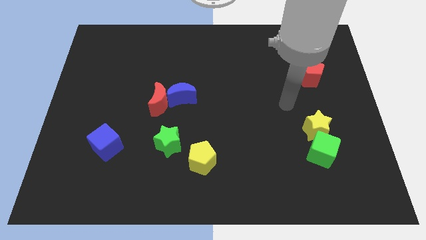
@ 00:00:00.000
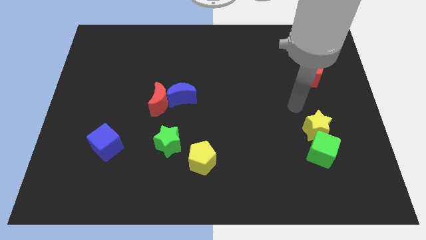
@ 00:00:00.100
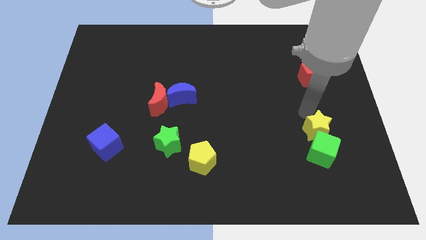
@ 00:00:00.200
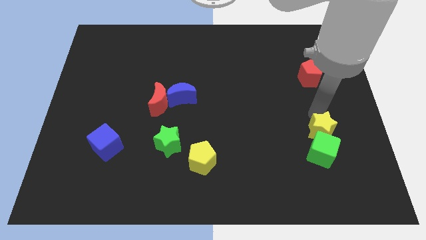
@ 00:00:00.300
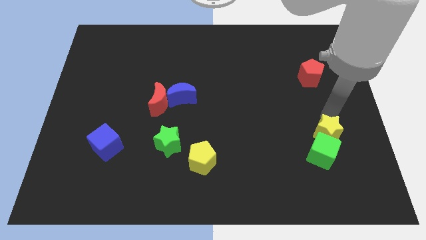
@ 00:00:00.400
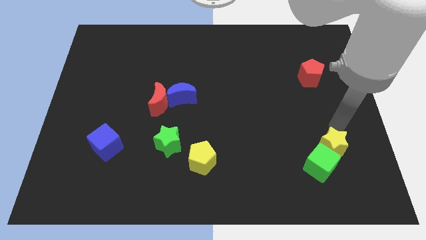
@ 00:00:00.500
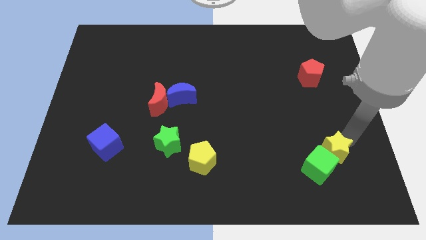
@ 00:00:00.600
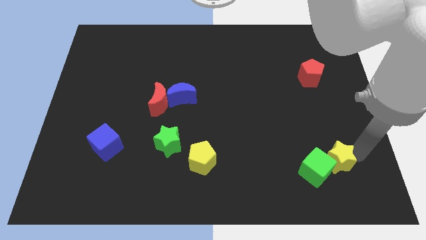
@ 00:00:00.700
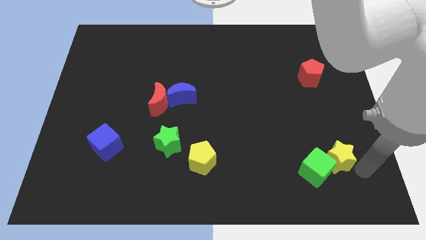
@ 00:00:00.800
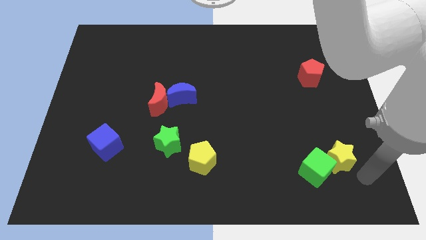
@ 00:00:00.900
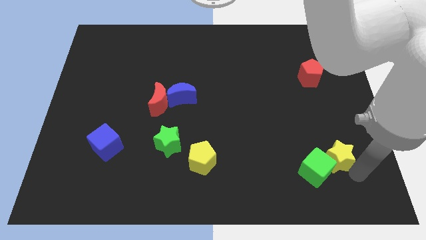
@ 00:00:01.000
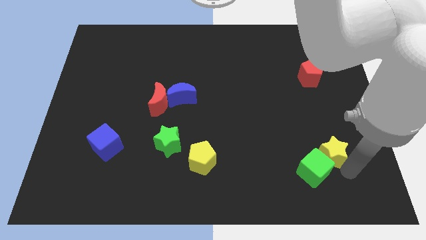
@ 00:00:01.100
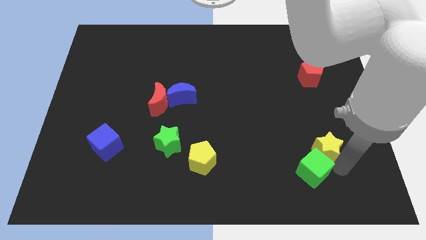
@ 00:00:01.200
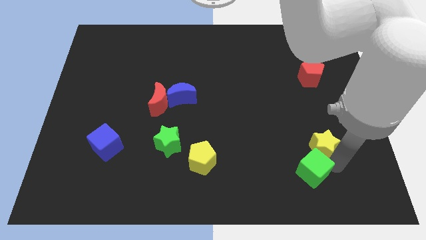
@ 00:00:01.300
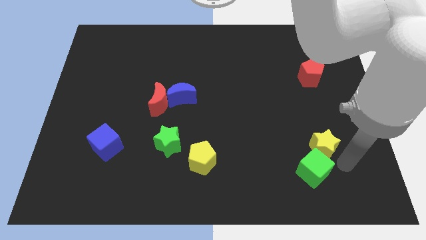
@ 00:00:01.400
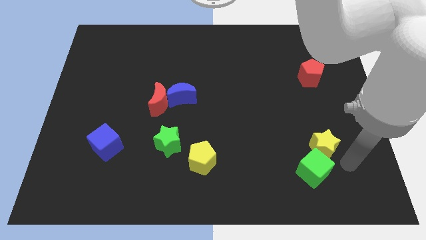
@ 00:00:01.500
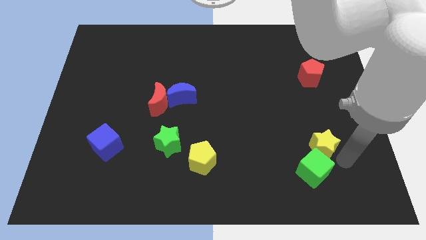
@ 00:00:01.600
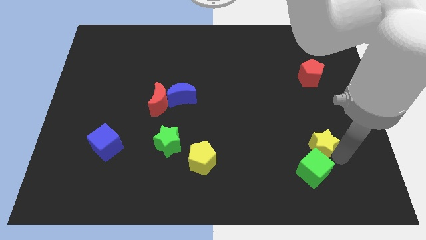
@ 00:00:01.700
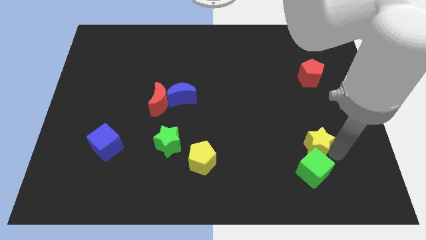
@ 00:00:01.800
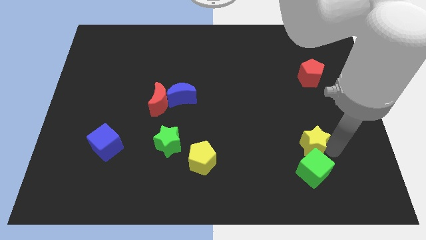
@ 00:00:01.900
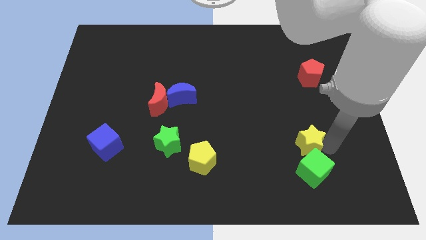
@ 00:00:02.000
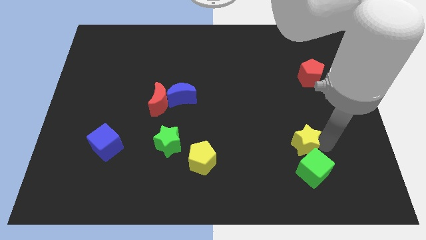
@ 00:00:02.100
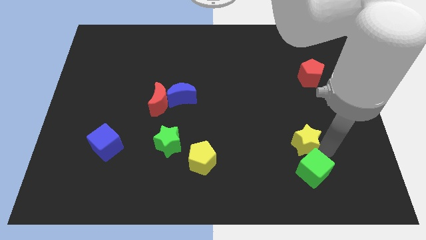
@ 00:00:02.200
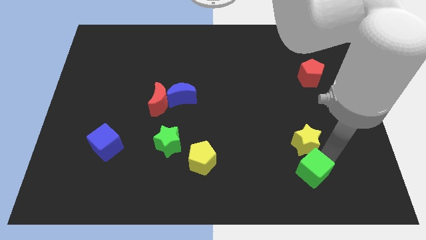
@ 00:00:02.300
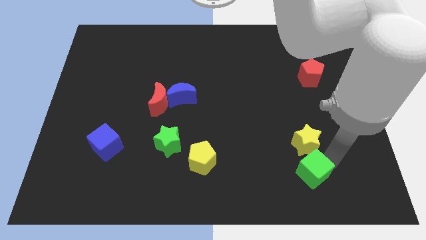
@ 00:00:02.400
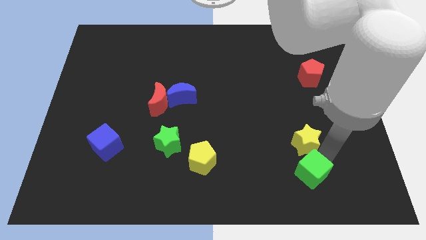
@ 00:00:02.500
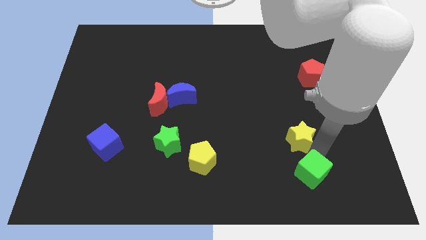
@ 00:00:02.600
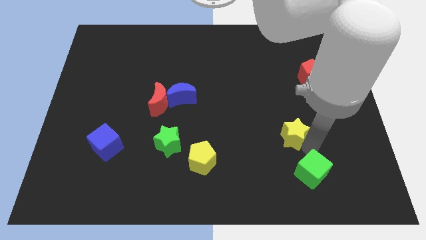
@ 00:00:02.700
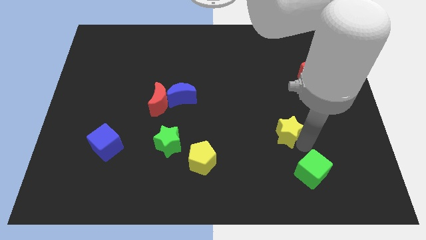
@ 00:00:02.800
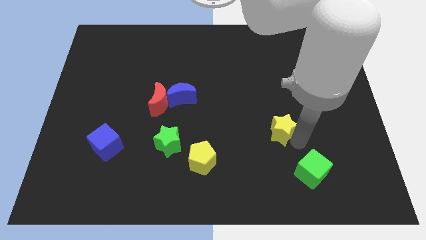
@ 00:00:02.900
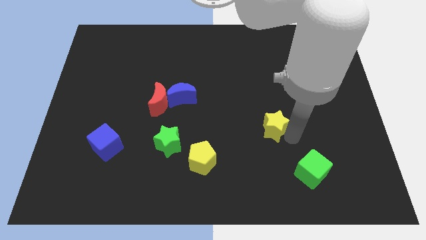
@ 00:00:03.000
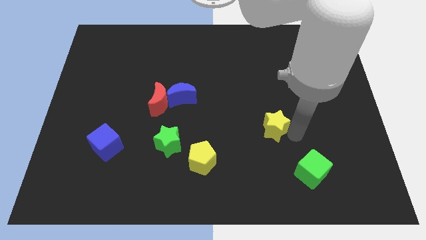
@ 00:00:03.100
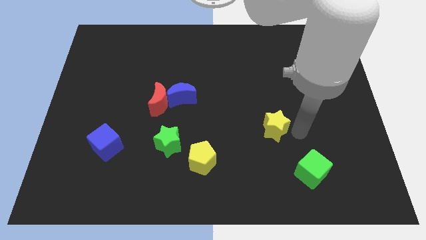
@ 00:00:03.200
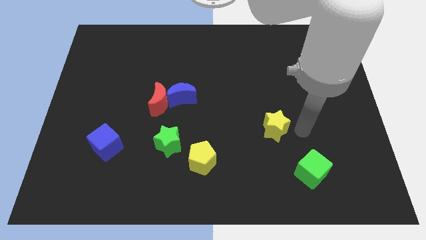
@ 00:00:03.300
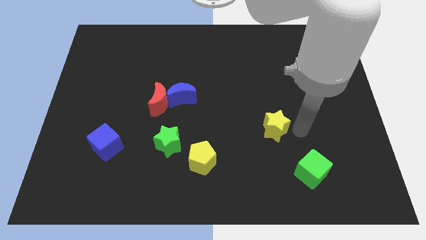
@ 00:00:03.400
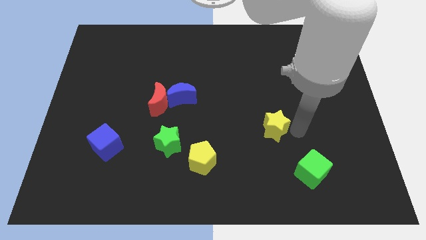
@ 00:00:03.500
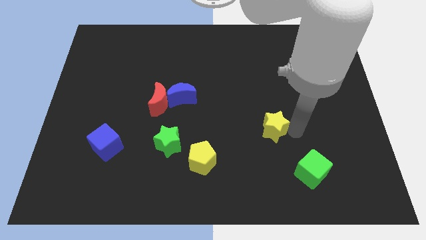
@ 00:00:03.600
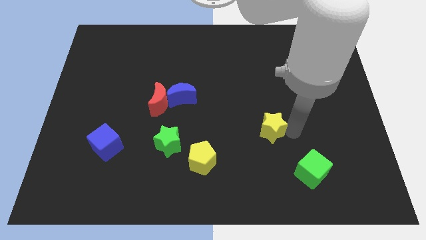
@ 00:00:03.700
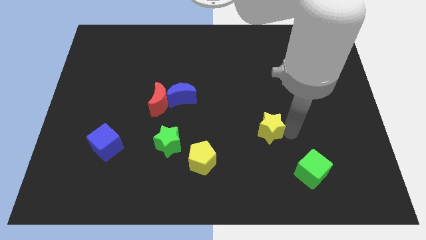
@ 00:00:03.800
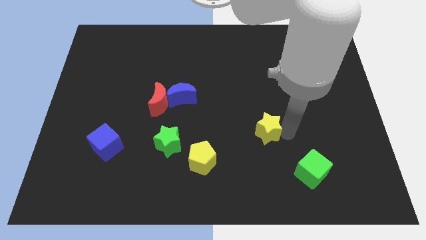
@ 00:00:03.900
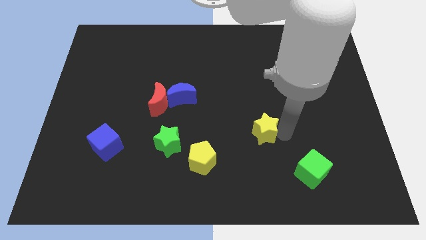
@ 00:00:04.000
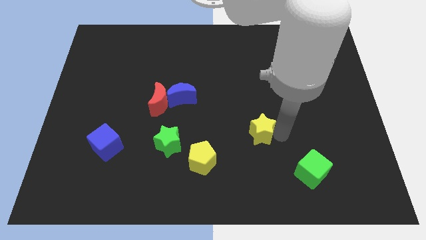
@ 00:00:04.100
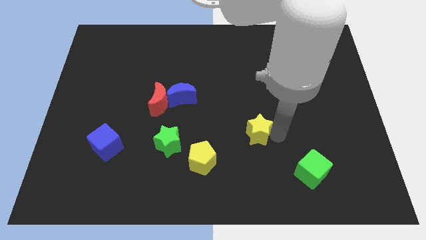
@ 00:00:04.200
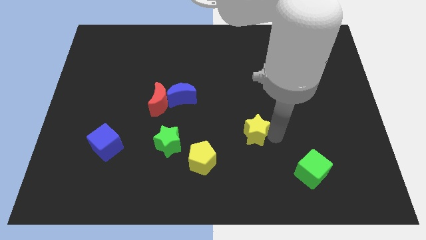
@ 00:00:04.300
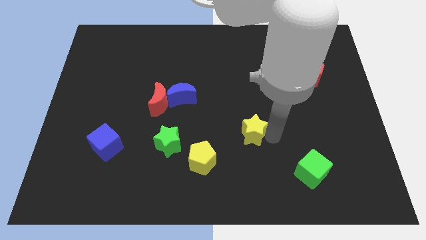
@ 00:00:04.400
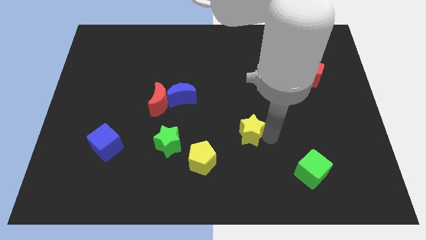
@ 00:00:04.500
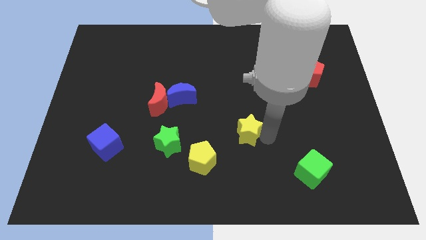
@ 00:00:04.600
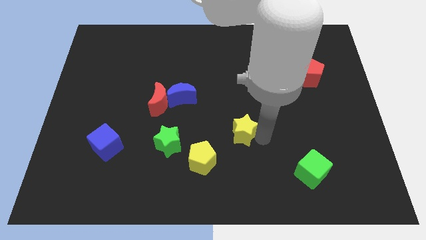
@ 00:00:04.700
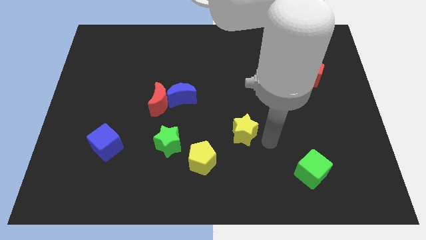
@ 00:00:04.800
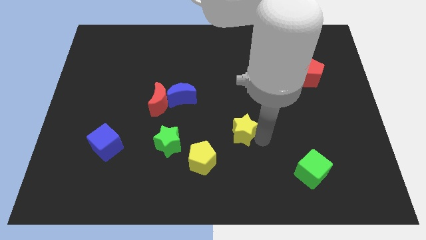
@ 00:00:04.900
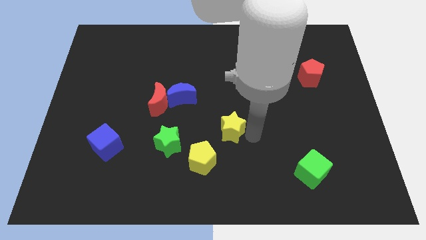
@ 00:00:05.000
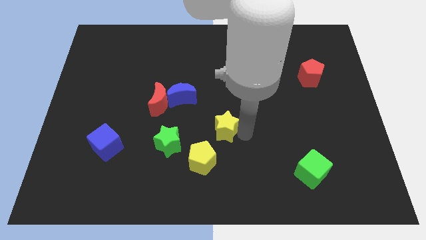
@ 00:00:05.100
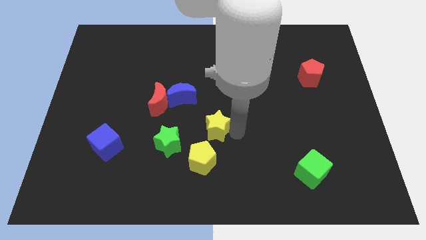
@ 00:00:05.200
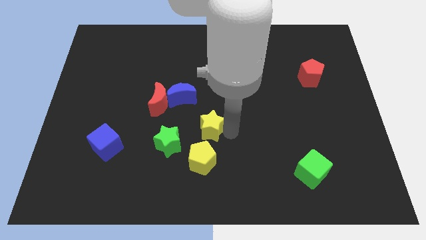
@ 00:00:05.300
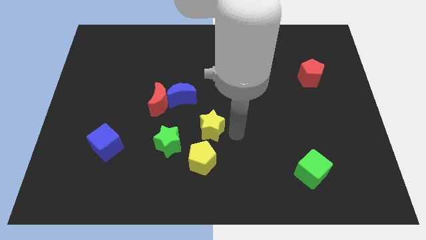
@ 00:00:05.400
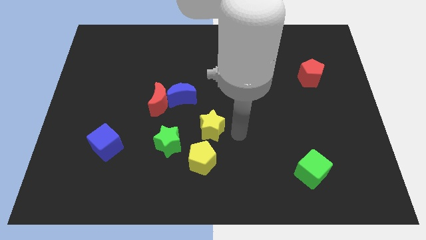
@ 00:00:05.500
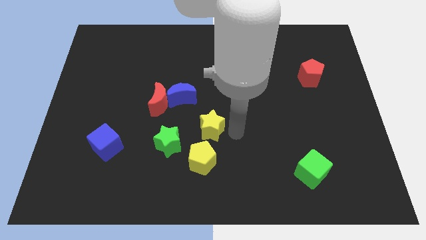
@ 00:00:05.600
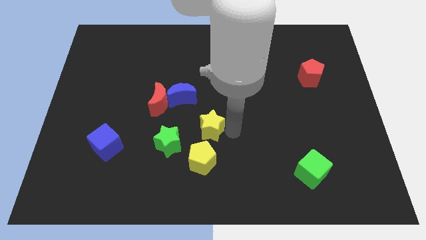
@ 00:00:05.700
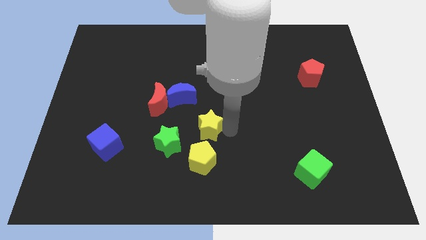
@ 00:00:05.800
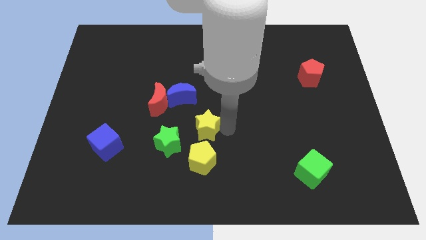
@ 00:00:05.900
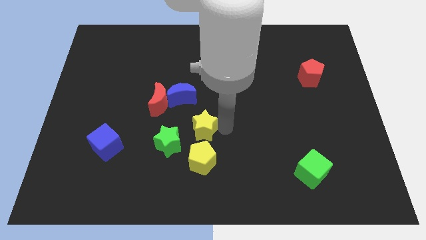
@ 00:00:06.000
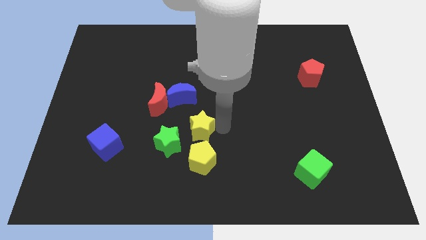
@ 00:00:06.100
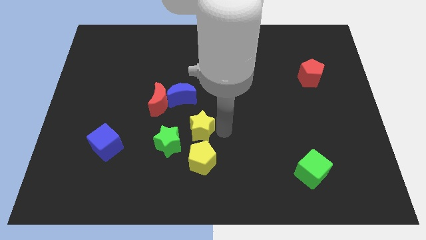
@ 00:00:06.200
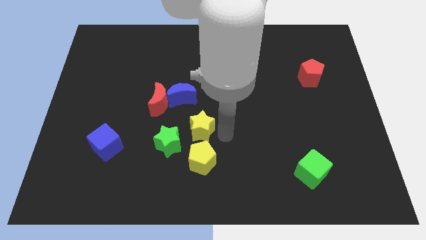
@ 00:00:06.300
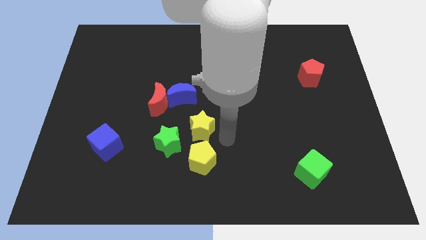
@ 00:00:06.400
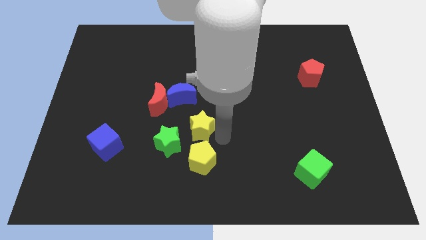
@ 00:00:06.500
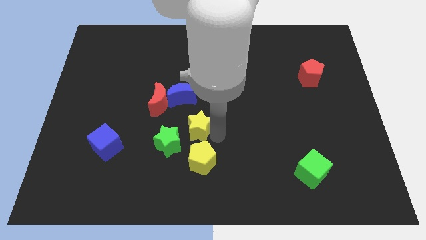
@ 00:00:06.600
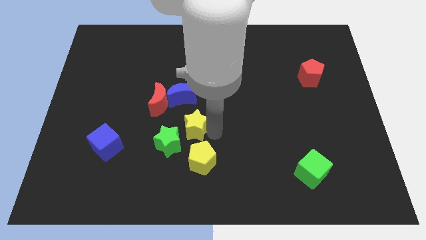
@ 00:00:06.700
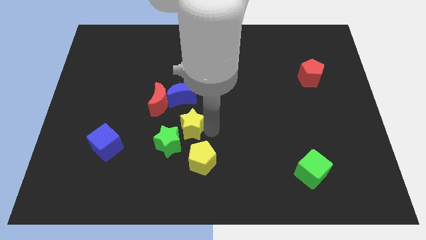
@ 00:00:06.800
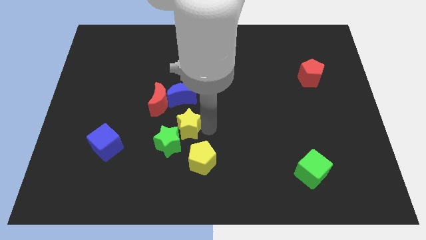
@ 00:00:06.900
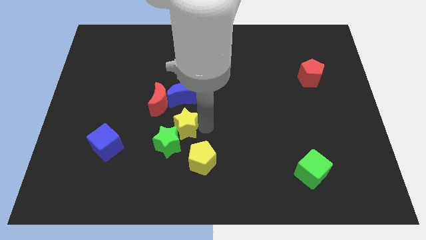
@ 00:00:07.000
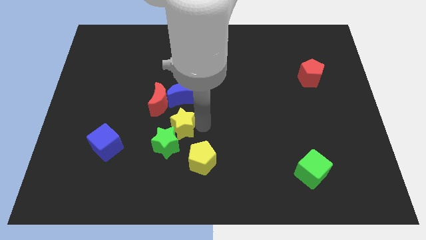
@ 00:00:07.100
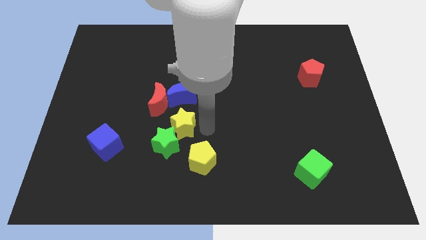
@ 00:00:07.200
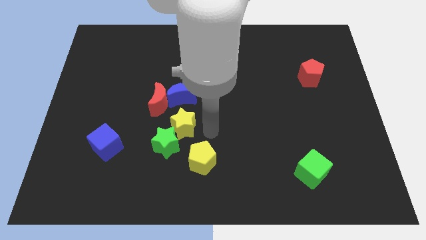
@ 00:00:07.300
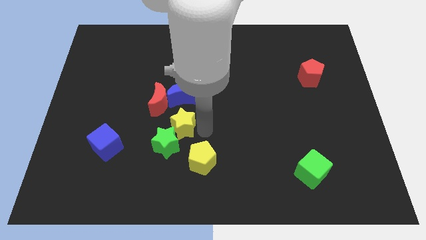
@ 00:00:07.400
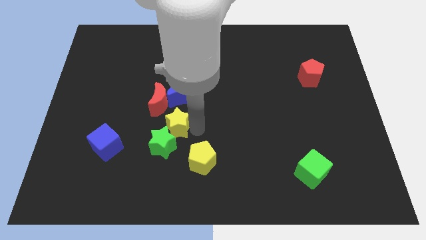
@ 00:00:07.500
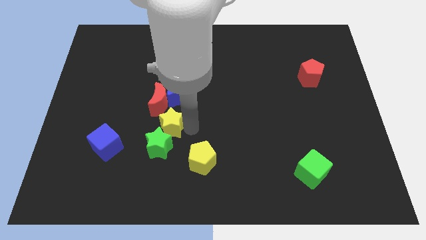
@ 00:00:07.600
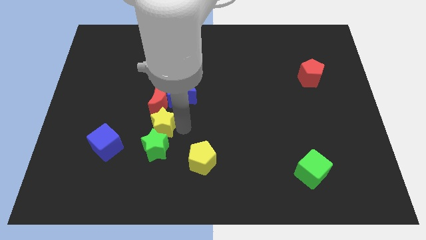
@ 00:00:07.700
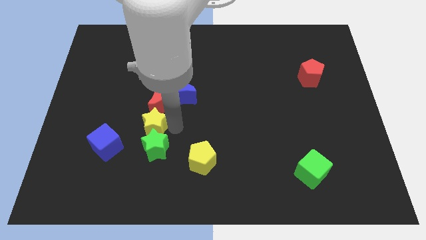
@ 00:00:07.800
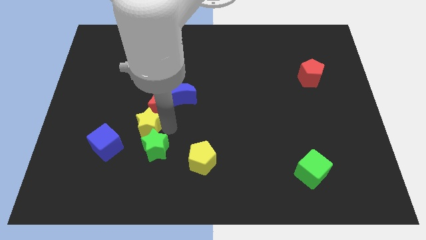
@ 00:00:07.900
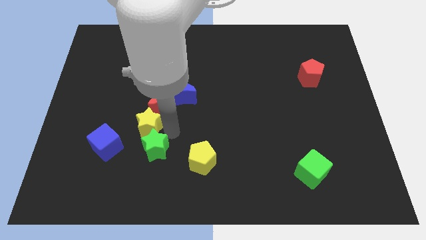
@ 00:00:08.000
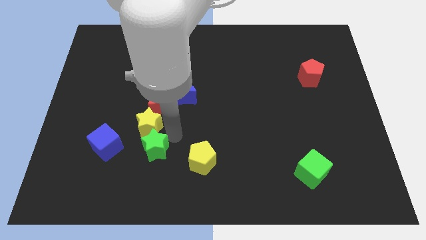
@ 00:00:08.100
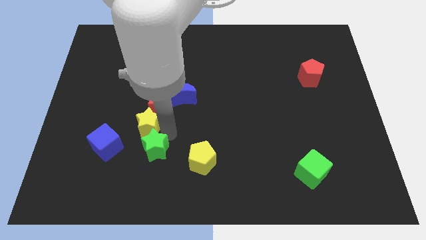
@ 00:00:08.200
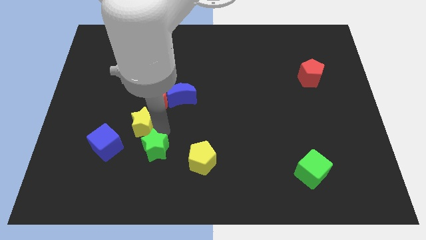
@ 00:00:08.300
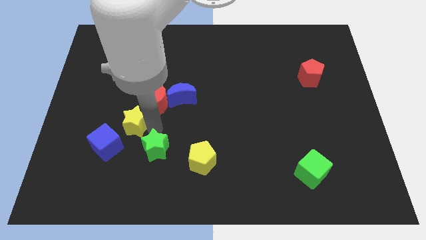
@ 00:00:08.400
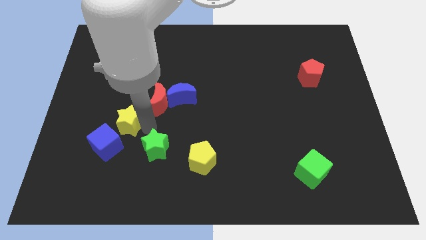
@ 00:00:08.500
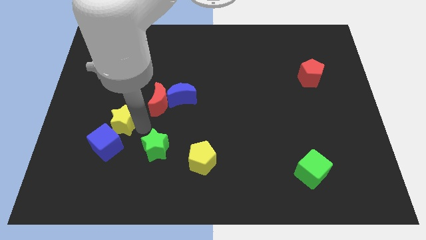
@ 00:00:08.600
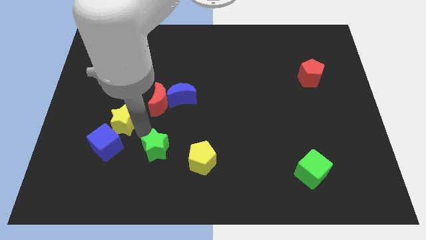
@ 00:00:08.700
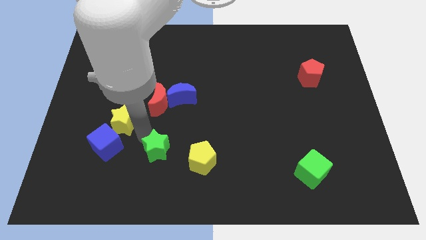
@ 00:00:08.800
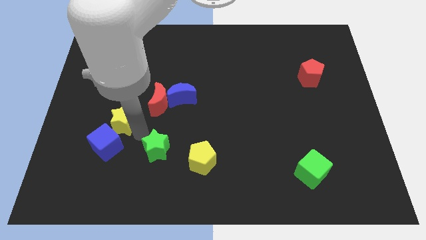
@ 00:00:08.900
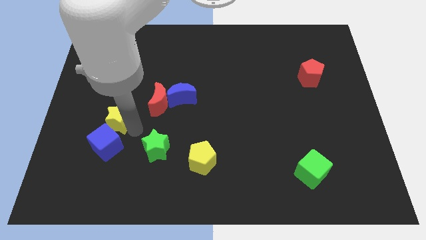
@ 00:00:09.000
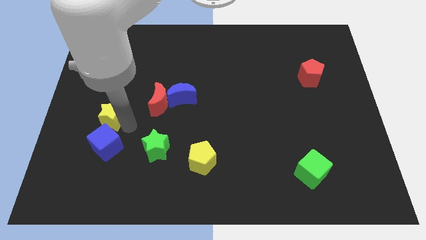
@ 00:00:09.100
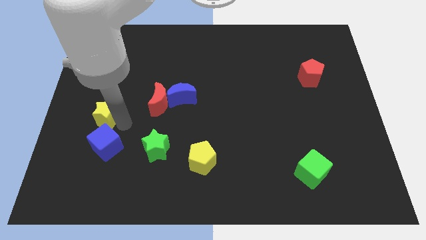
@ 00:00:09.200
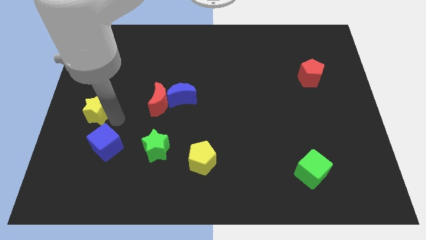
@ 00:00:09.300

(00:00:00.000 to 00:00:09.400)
move the yellow star to the center left
